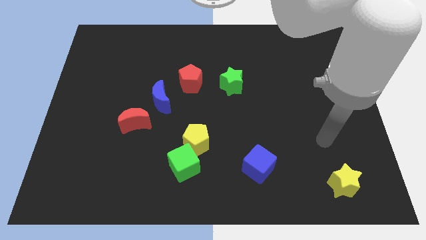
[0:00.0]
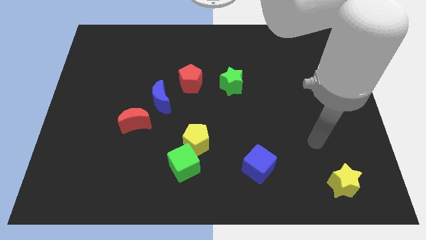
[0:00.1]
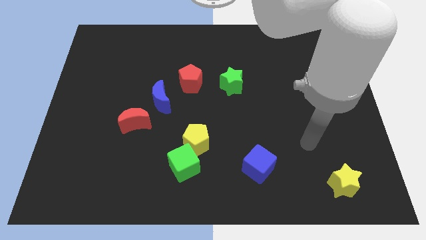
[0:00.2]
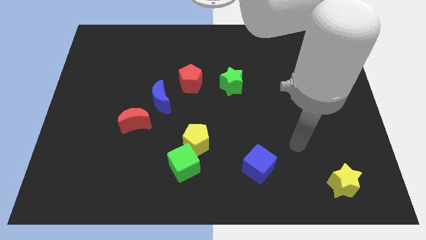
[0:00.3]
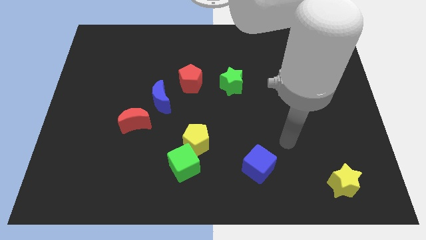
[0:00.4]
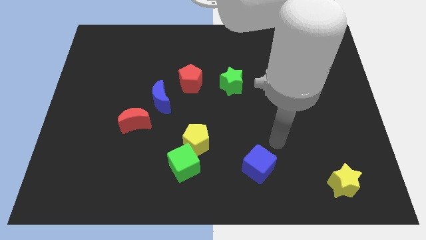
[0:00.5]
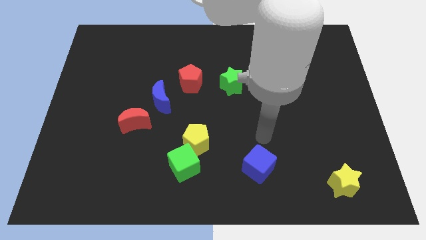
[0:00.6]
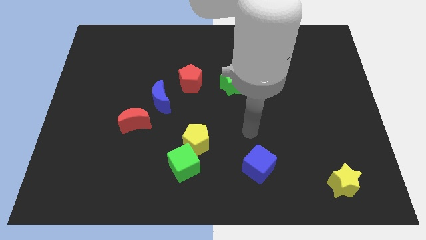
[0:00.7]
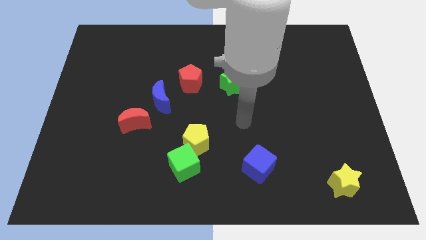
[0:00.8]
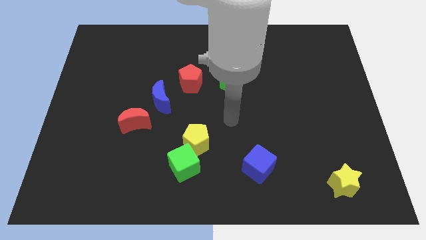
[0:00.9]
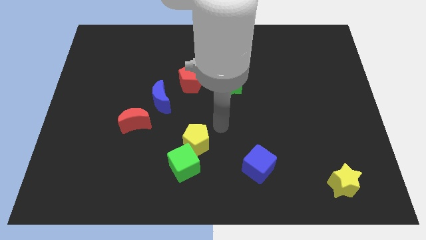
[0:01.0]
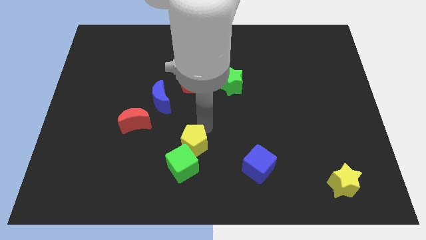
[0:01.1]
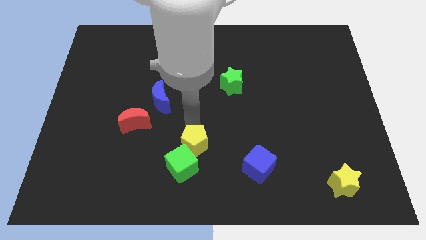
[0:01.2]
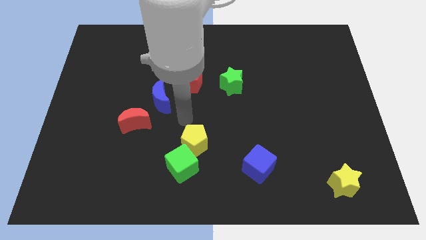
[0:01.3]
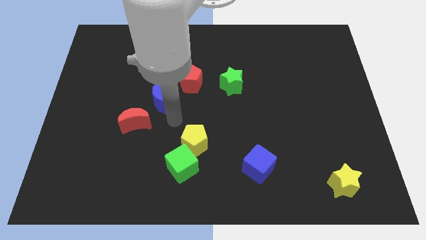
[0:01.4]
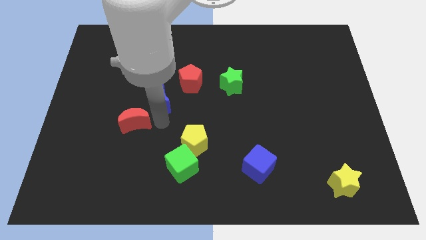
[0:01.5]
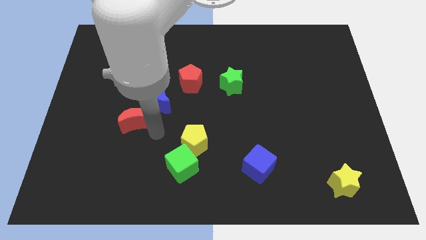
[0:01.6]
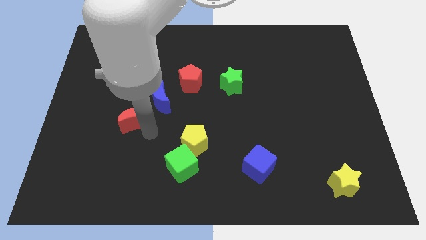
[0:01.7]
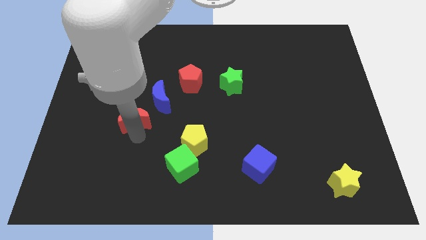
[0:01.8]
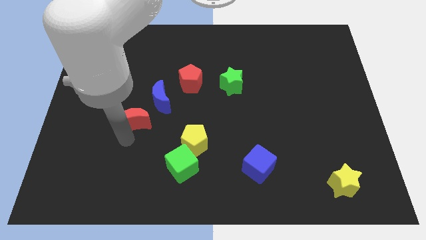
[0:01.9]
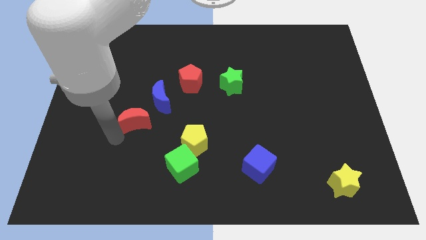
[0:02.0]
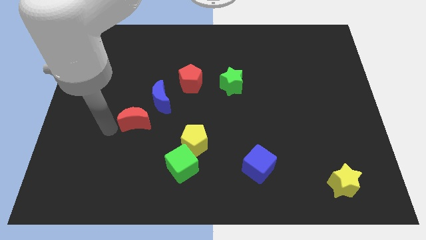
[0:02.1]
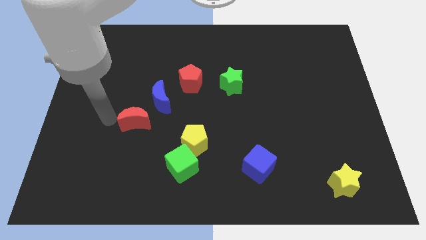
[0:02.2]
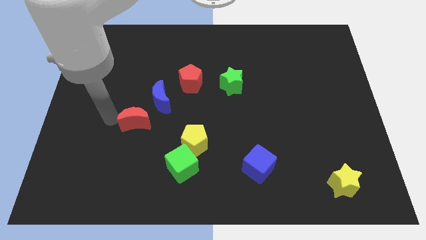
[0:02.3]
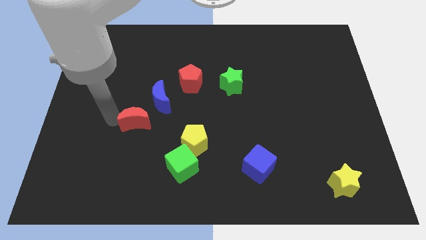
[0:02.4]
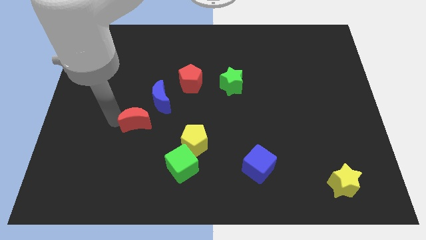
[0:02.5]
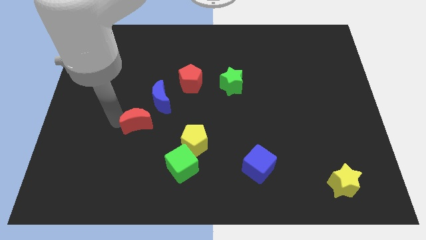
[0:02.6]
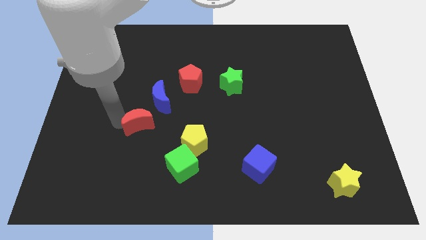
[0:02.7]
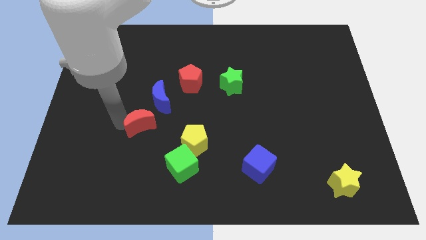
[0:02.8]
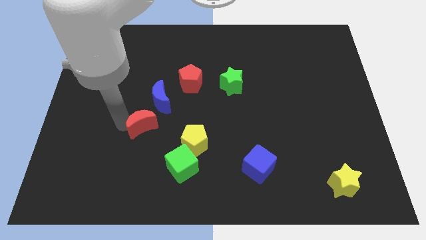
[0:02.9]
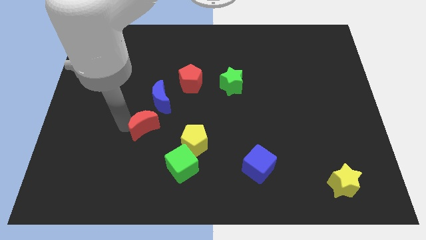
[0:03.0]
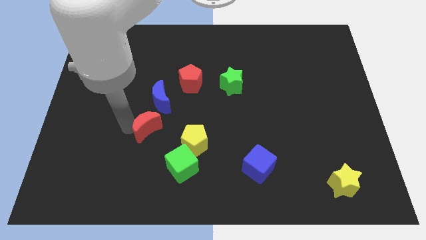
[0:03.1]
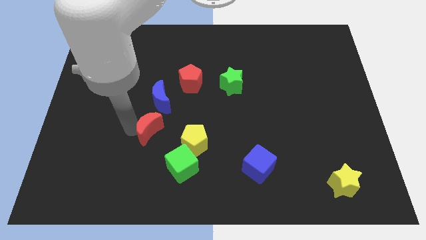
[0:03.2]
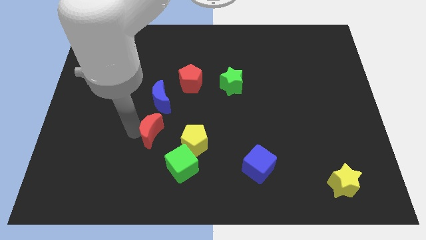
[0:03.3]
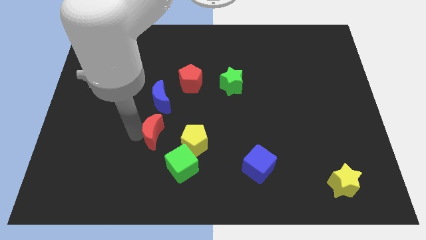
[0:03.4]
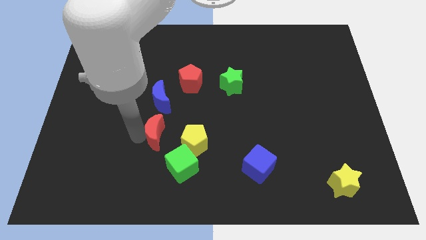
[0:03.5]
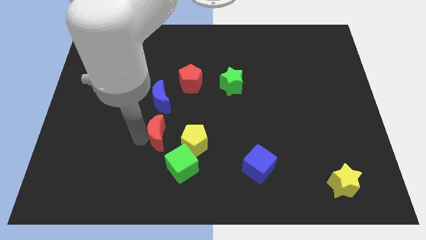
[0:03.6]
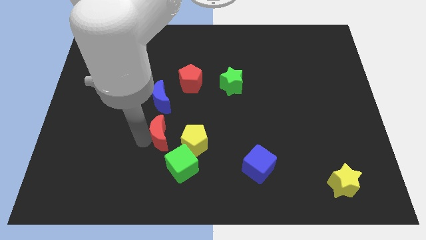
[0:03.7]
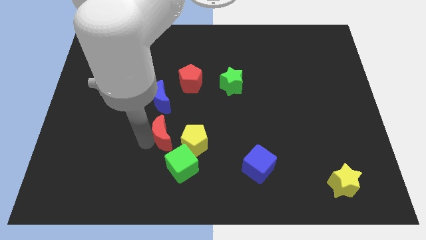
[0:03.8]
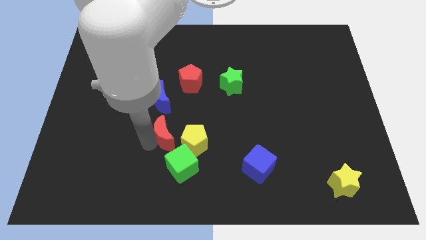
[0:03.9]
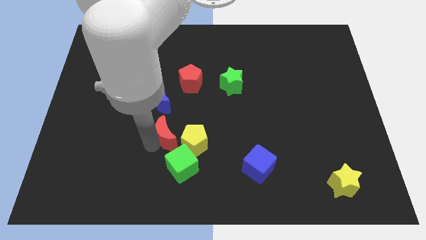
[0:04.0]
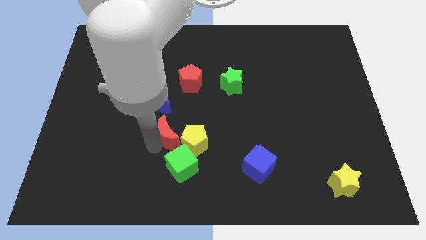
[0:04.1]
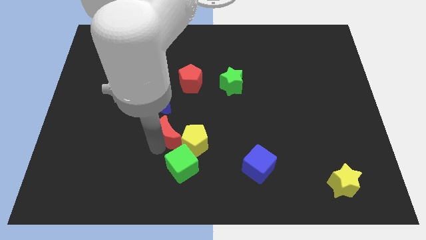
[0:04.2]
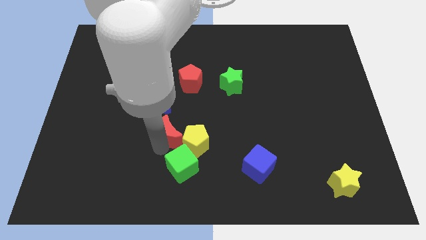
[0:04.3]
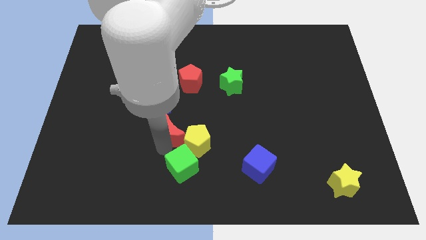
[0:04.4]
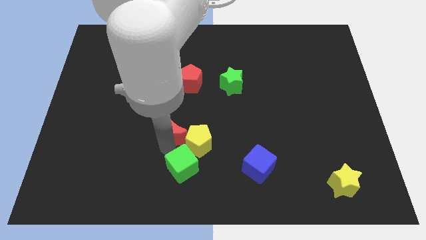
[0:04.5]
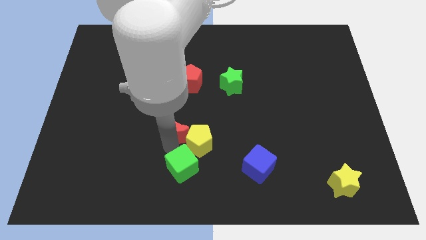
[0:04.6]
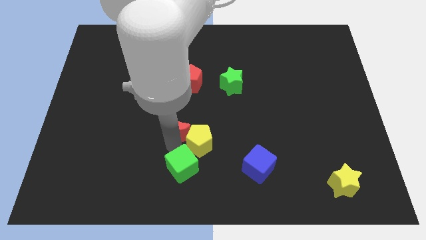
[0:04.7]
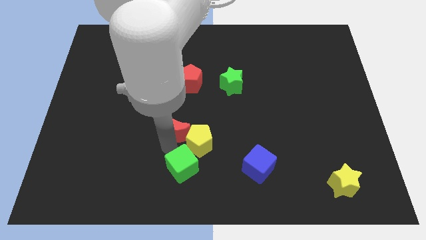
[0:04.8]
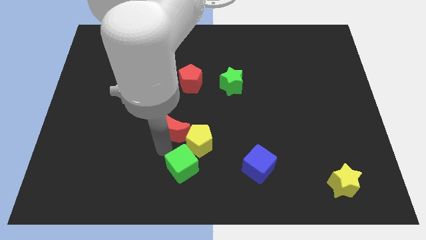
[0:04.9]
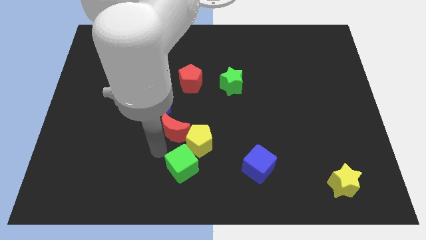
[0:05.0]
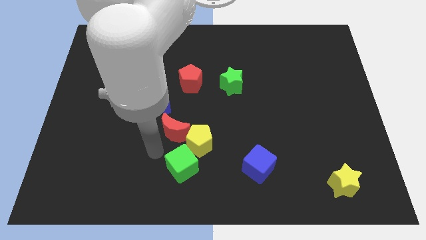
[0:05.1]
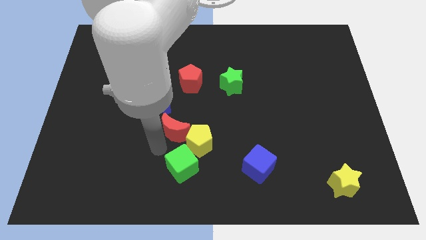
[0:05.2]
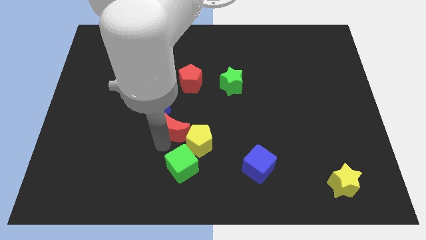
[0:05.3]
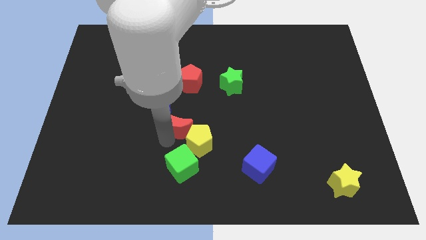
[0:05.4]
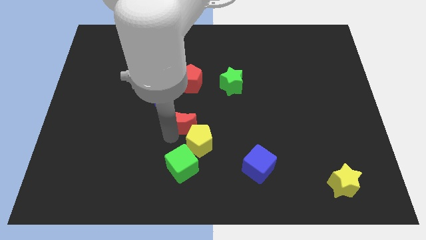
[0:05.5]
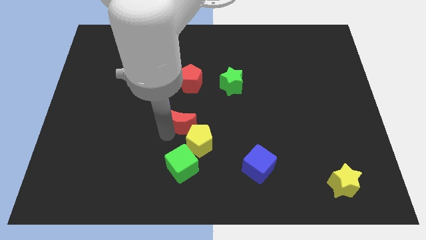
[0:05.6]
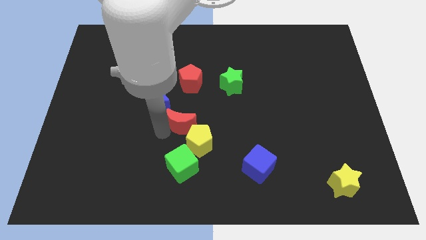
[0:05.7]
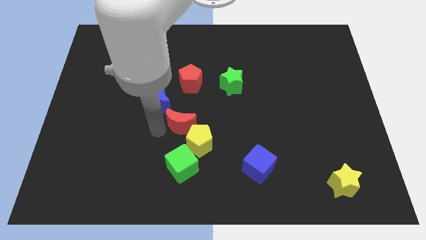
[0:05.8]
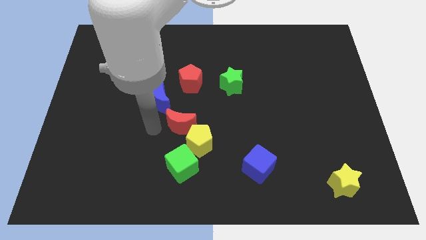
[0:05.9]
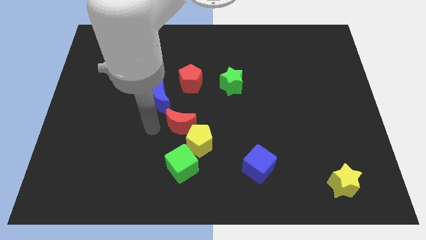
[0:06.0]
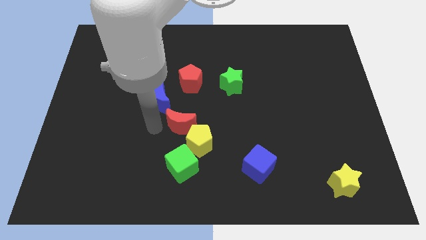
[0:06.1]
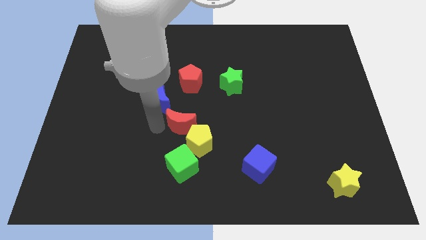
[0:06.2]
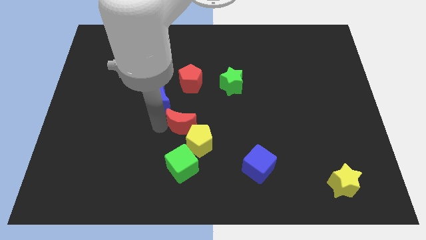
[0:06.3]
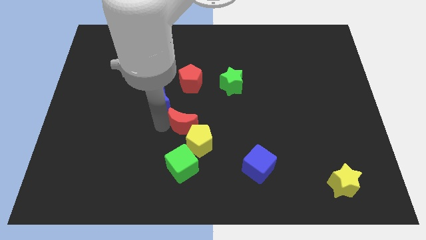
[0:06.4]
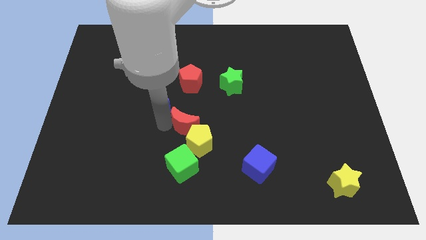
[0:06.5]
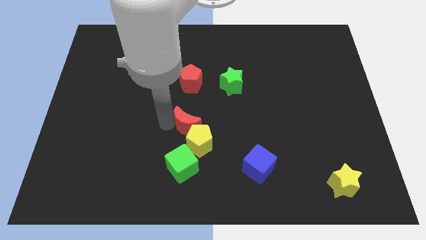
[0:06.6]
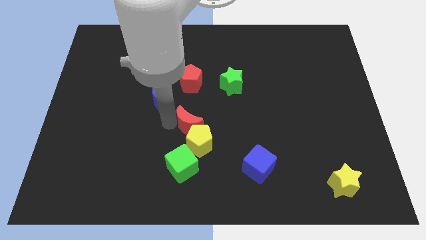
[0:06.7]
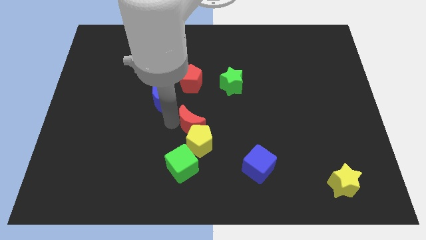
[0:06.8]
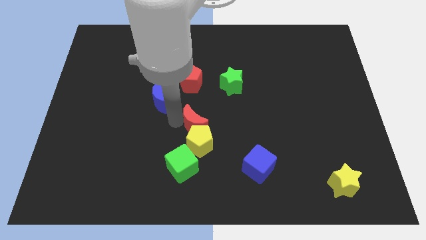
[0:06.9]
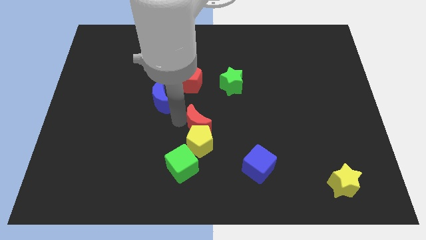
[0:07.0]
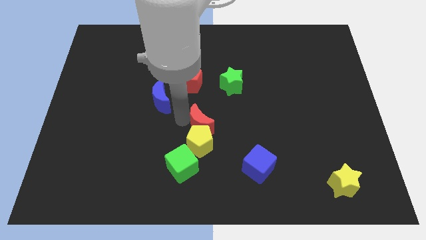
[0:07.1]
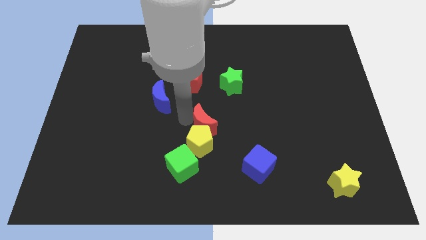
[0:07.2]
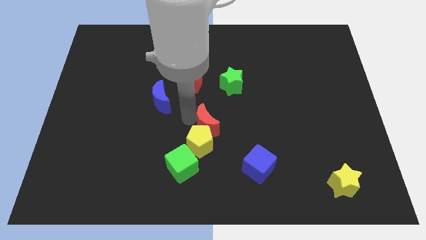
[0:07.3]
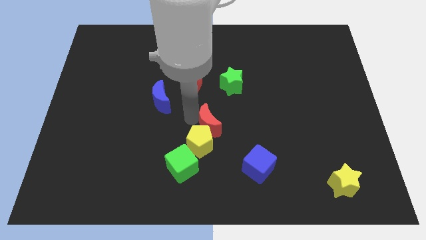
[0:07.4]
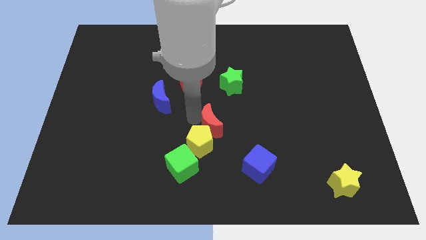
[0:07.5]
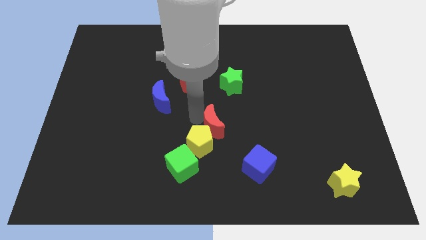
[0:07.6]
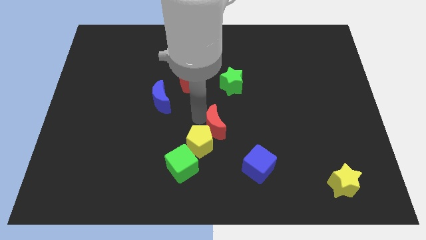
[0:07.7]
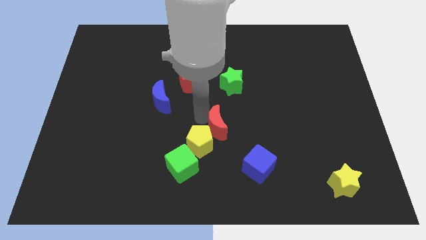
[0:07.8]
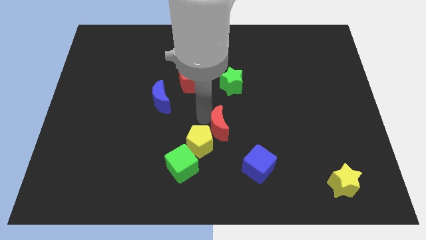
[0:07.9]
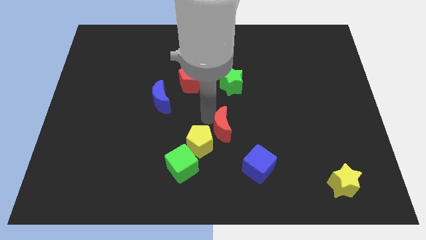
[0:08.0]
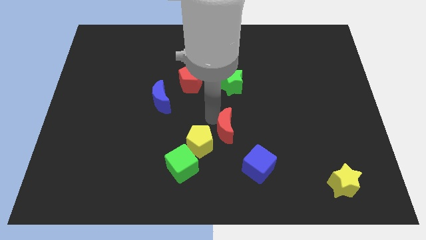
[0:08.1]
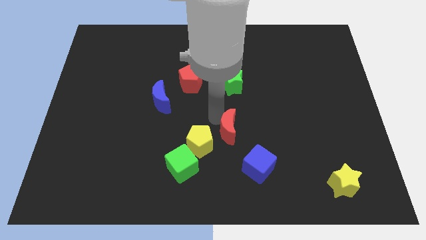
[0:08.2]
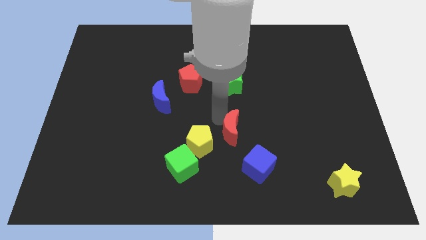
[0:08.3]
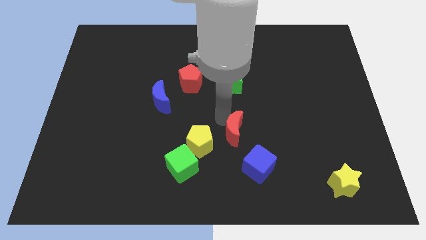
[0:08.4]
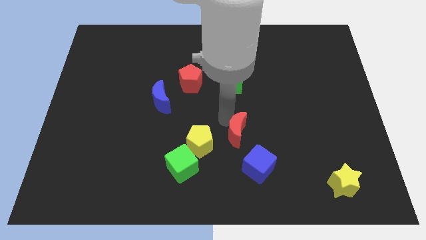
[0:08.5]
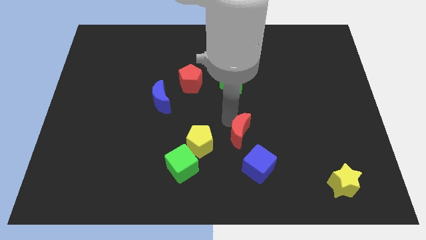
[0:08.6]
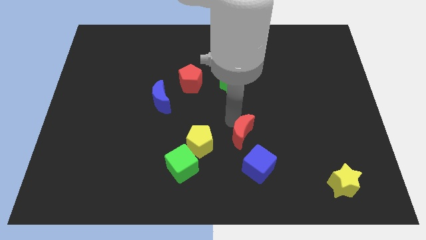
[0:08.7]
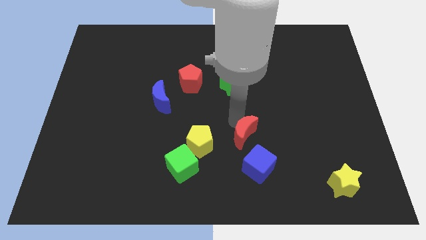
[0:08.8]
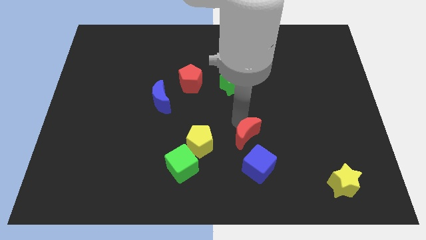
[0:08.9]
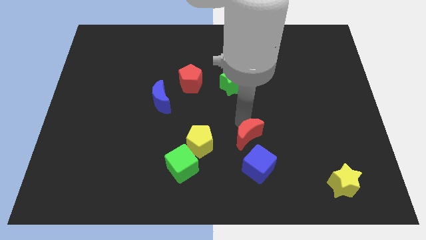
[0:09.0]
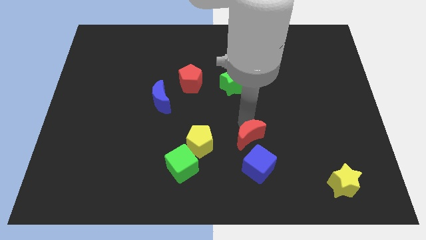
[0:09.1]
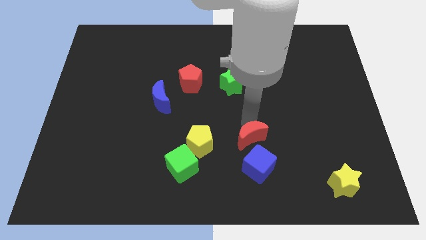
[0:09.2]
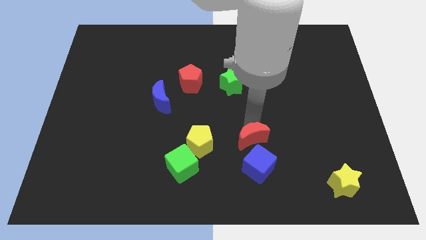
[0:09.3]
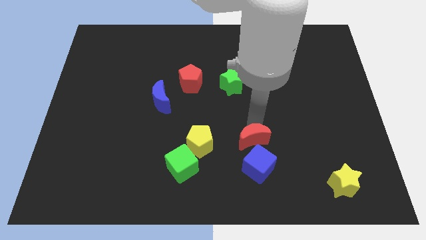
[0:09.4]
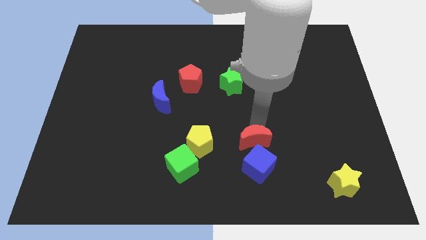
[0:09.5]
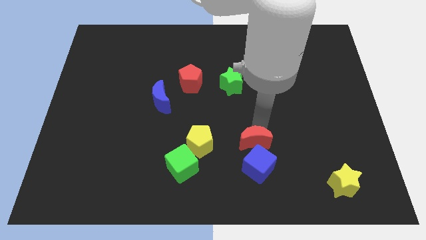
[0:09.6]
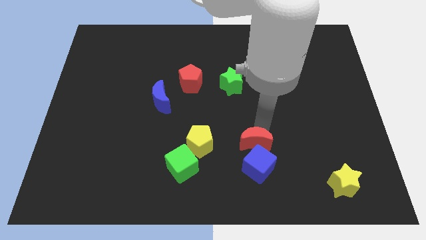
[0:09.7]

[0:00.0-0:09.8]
move the red moon to the blue cube
